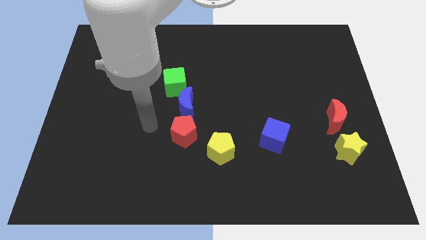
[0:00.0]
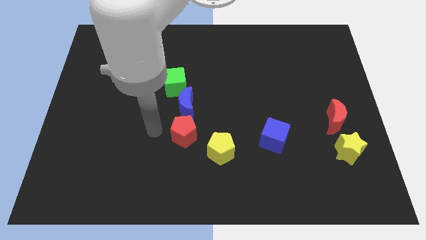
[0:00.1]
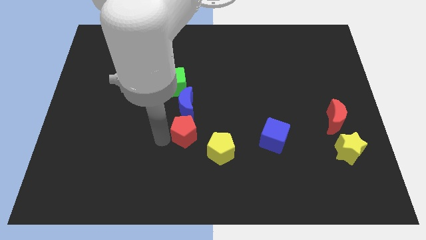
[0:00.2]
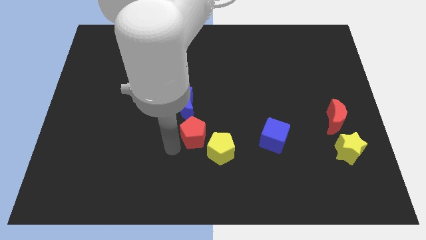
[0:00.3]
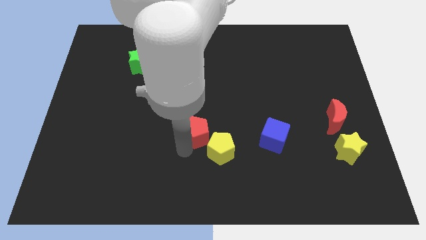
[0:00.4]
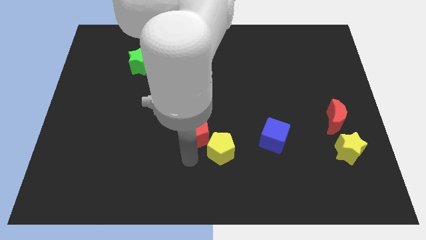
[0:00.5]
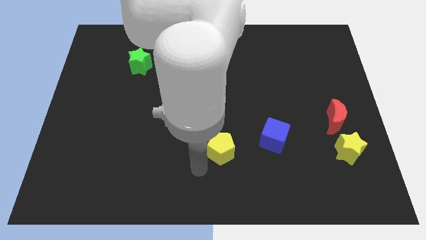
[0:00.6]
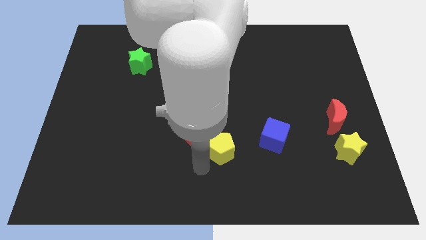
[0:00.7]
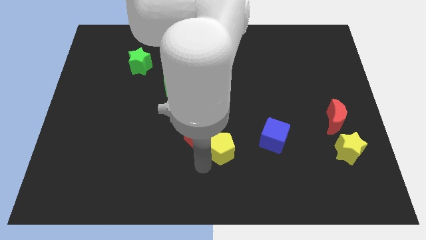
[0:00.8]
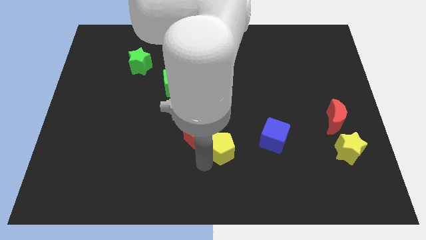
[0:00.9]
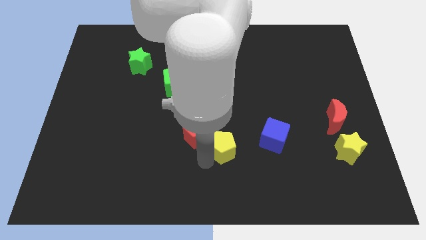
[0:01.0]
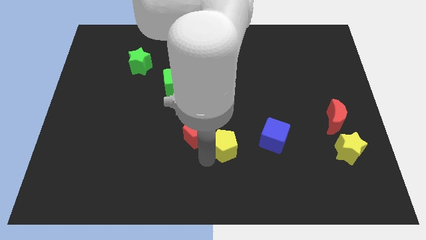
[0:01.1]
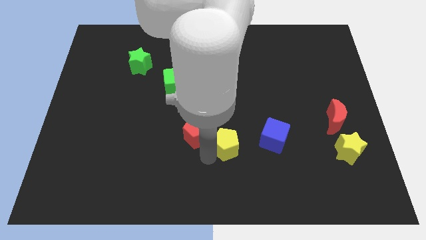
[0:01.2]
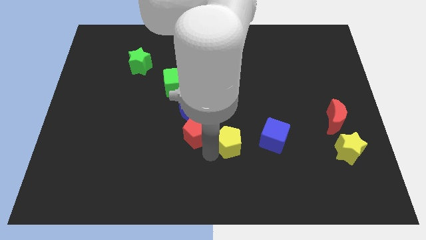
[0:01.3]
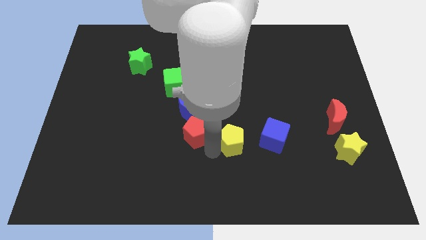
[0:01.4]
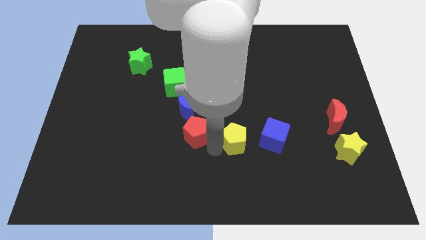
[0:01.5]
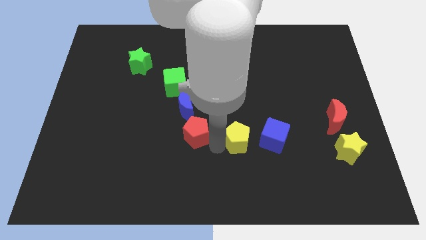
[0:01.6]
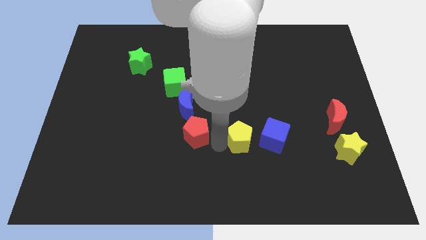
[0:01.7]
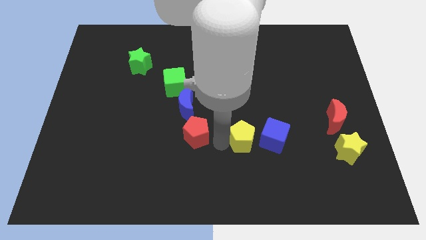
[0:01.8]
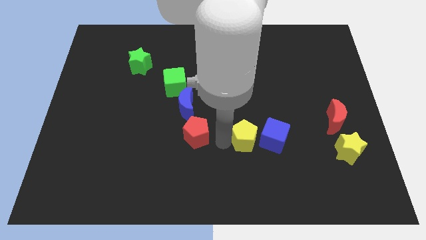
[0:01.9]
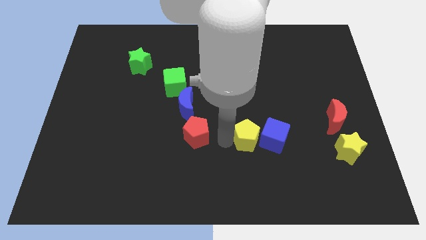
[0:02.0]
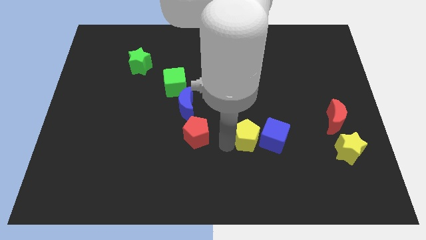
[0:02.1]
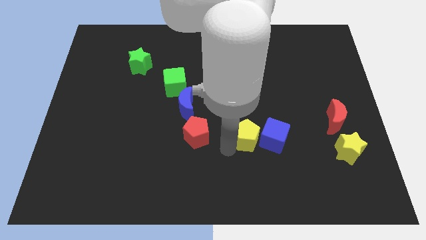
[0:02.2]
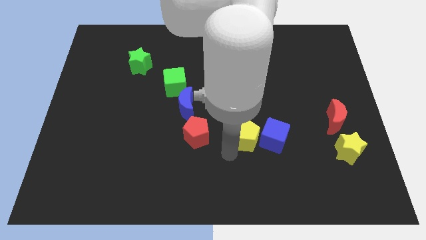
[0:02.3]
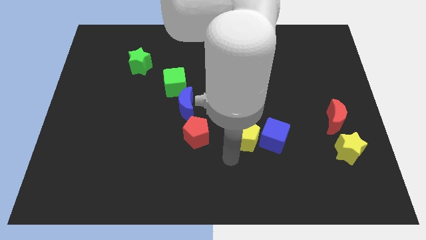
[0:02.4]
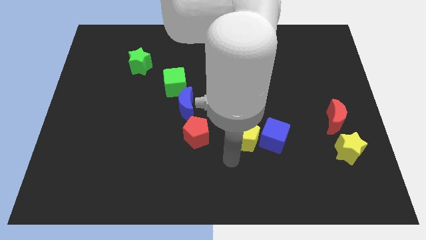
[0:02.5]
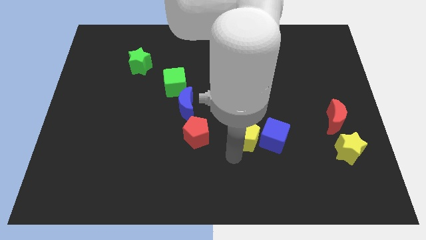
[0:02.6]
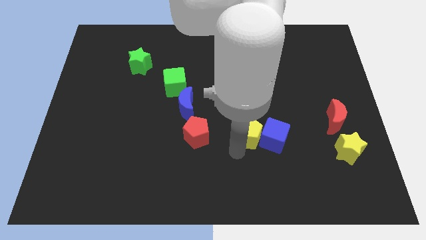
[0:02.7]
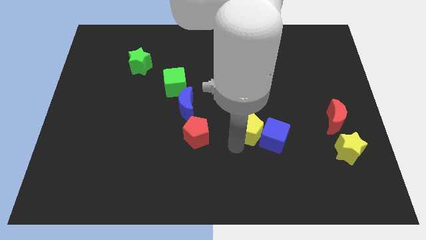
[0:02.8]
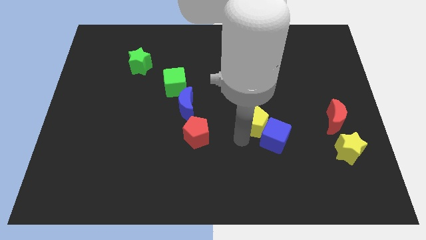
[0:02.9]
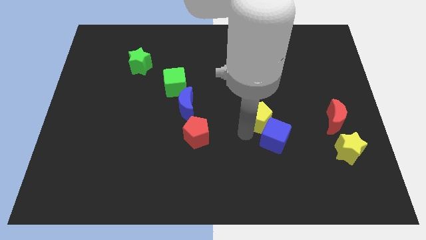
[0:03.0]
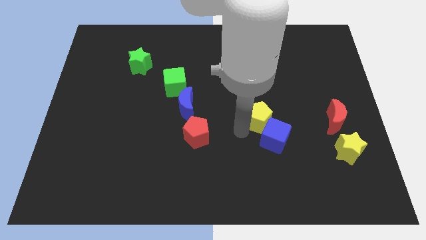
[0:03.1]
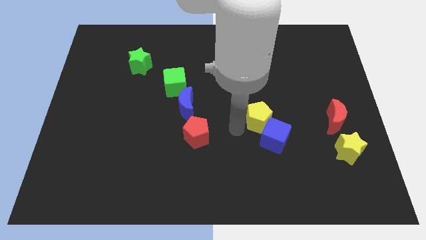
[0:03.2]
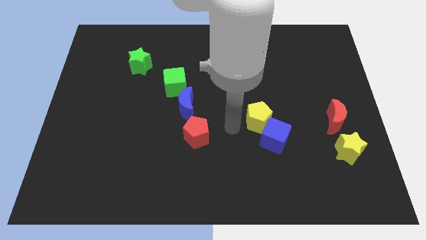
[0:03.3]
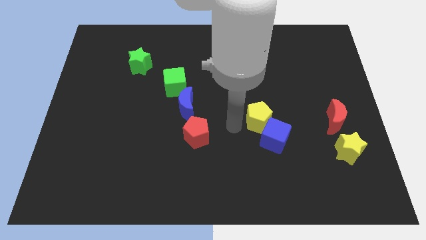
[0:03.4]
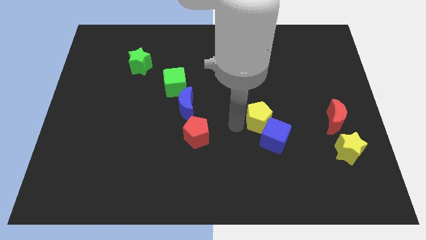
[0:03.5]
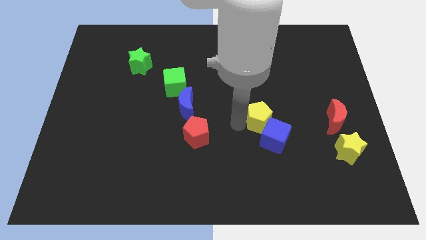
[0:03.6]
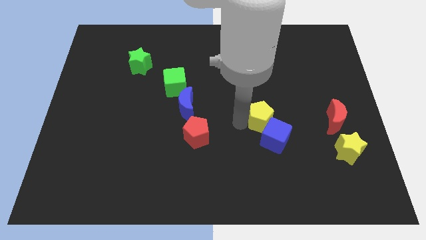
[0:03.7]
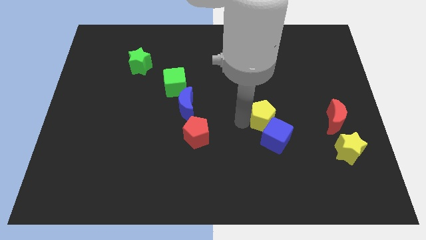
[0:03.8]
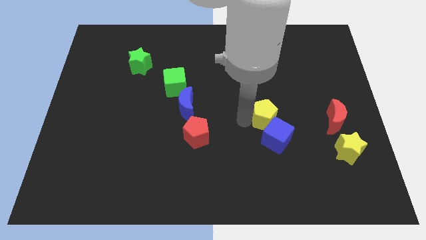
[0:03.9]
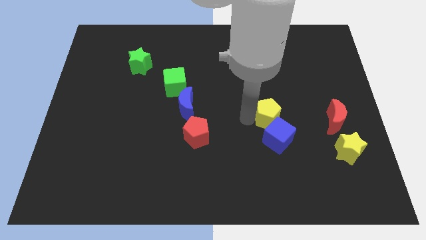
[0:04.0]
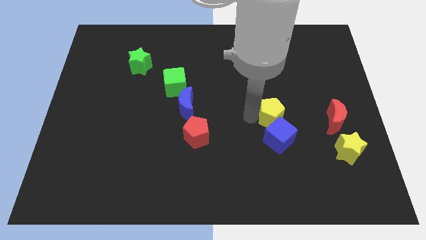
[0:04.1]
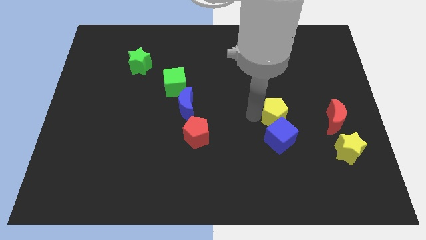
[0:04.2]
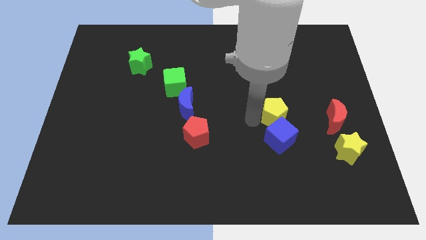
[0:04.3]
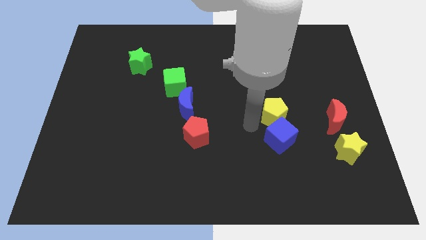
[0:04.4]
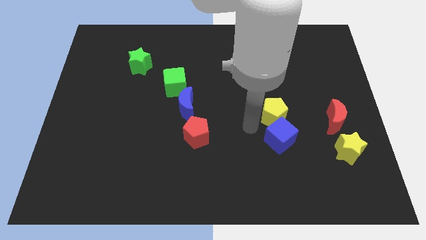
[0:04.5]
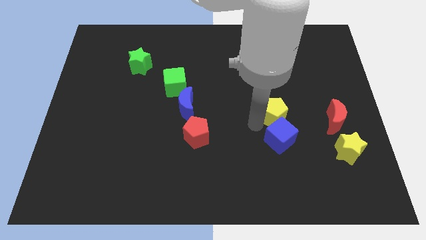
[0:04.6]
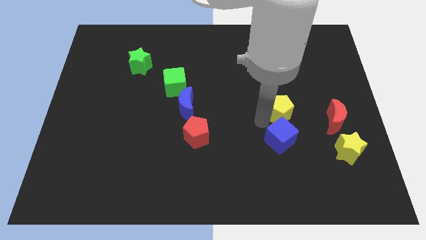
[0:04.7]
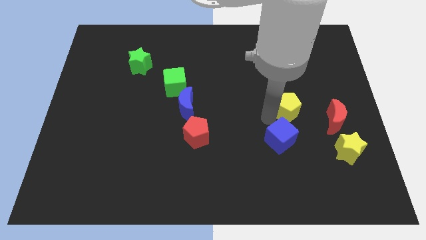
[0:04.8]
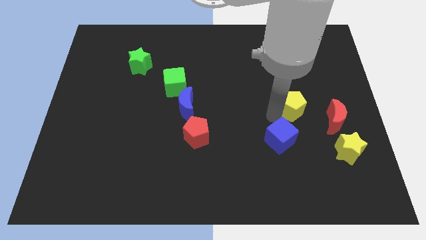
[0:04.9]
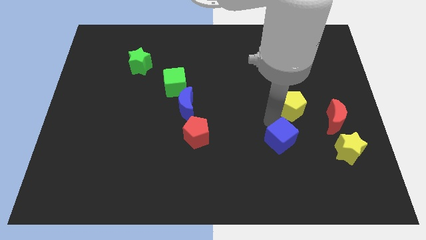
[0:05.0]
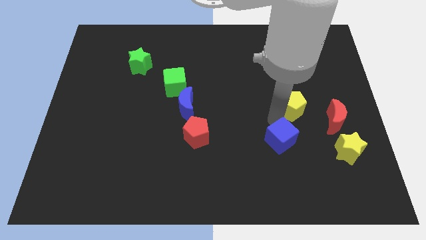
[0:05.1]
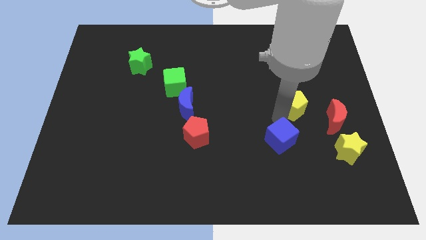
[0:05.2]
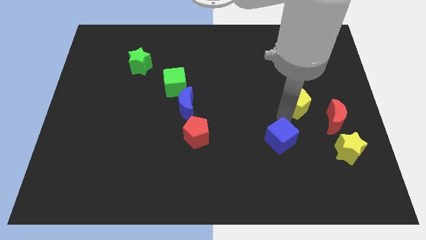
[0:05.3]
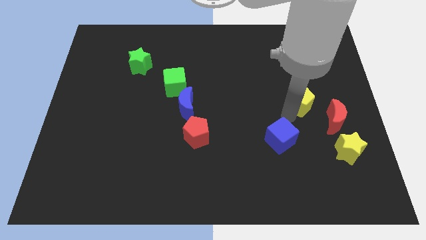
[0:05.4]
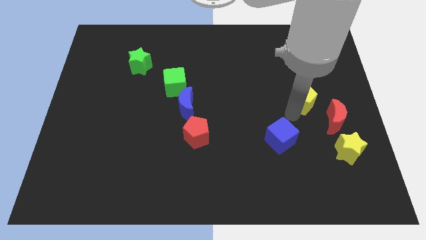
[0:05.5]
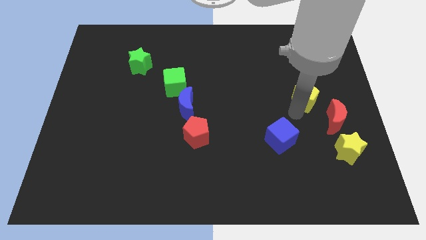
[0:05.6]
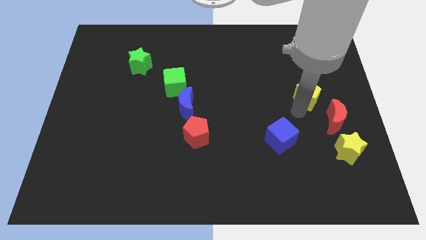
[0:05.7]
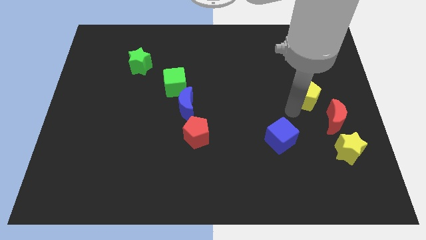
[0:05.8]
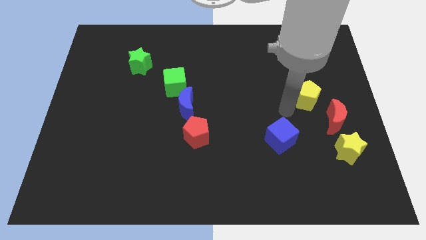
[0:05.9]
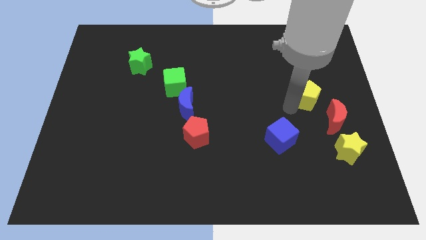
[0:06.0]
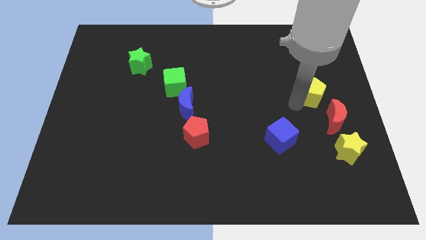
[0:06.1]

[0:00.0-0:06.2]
move the yellow pentagon to the top side of the red moon
